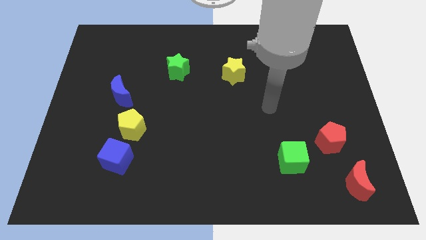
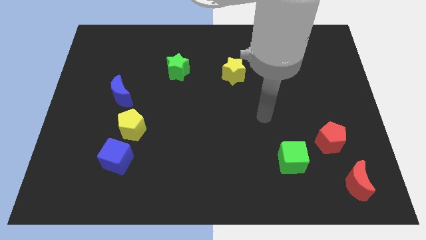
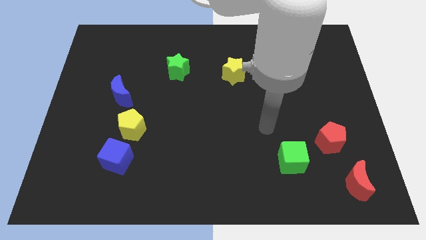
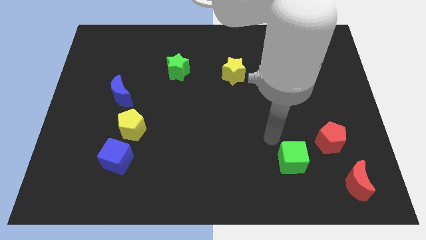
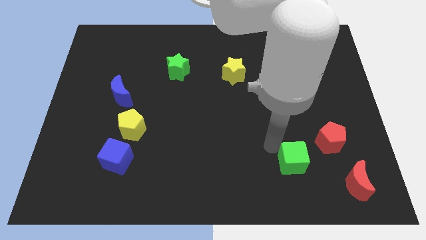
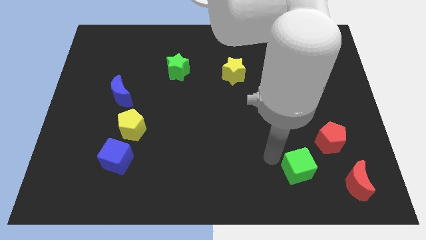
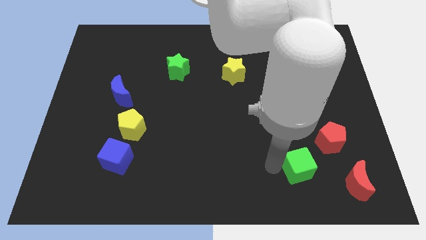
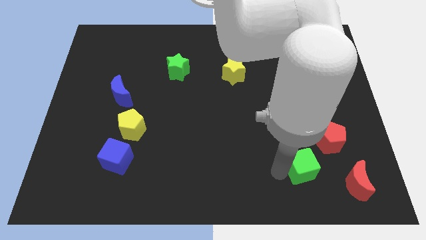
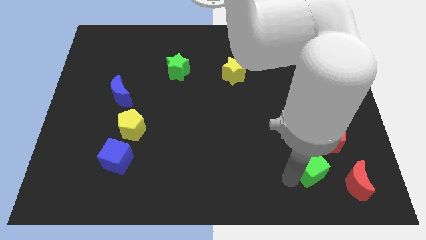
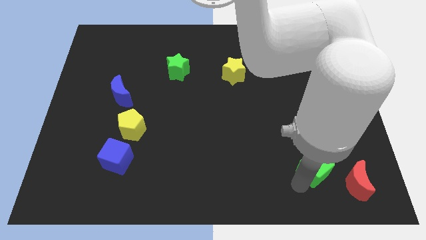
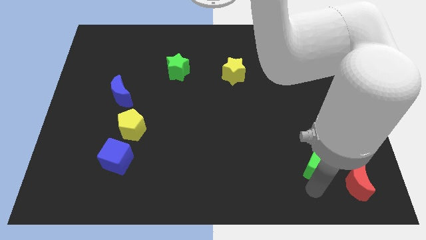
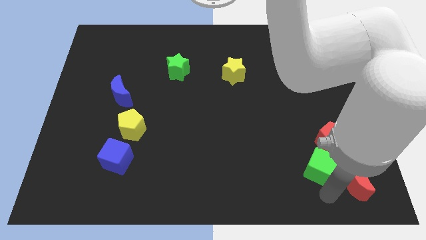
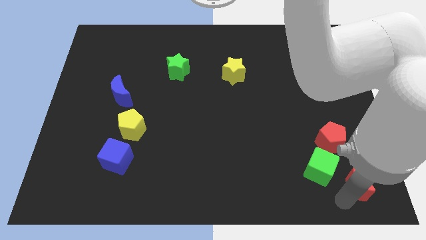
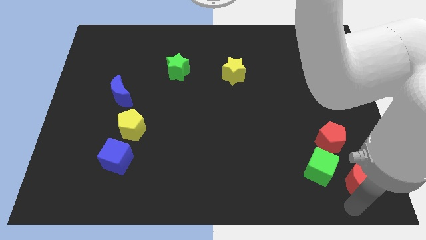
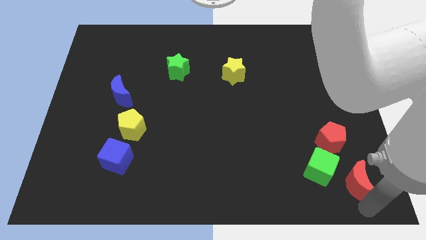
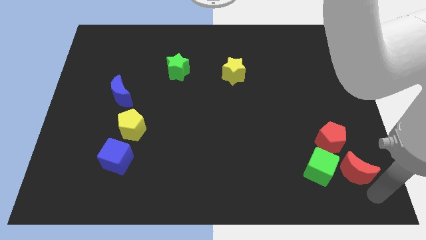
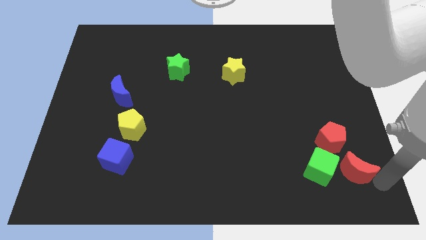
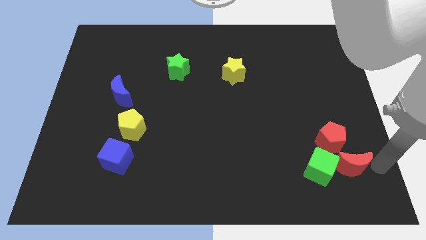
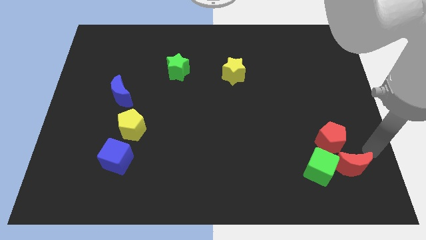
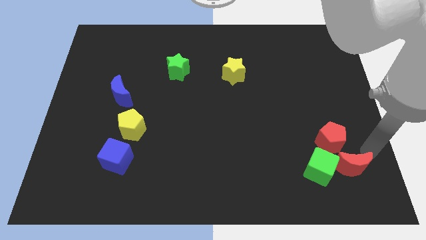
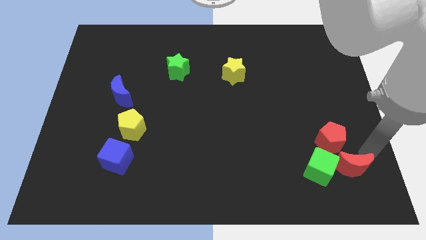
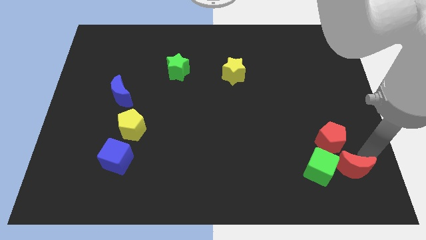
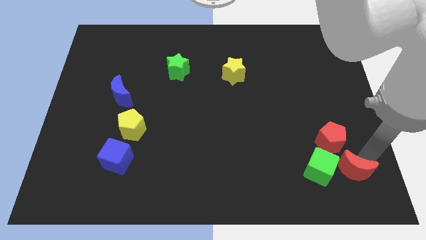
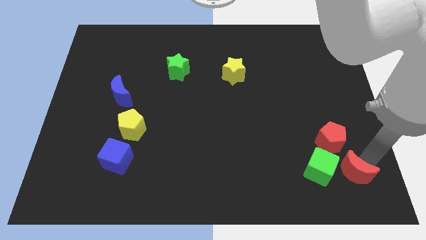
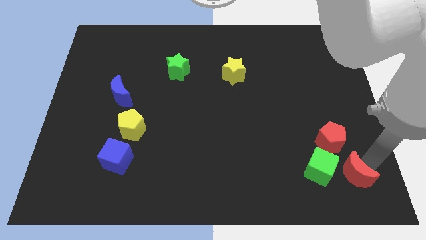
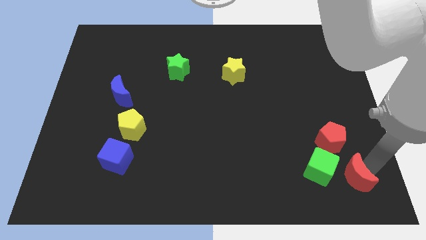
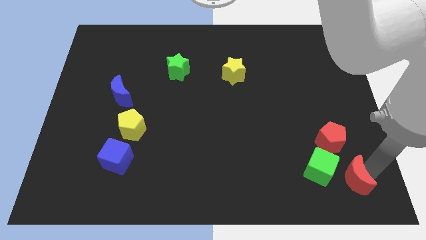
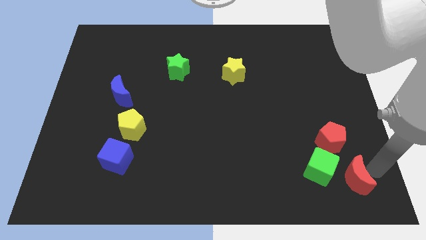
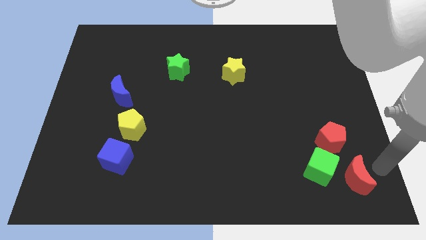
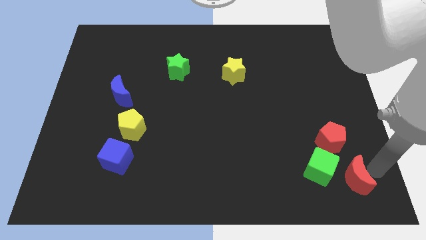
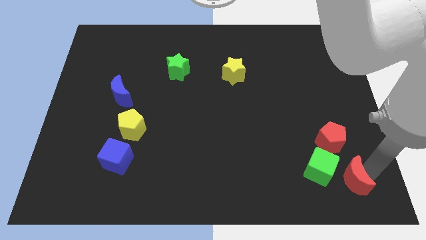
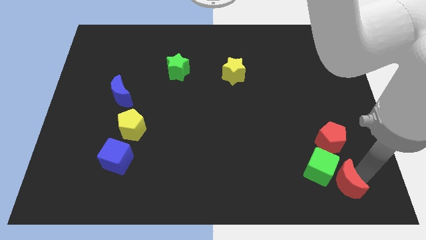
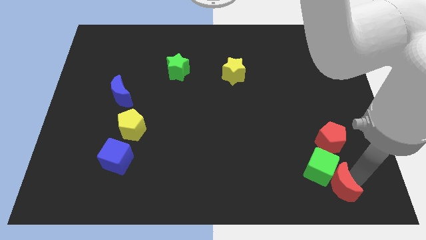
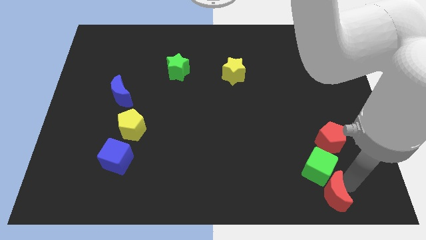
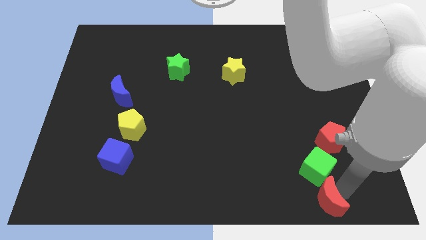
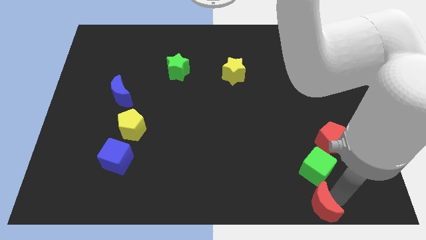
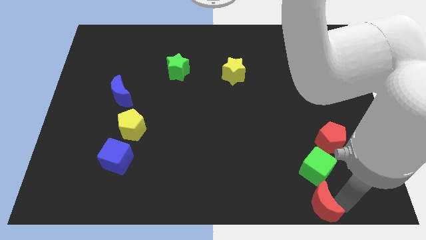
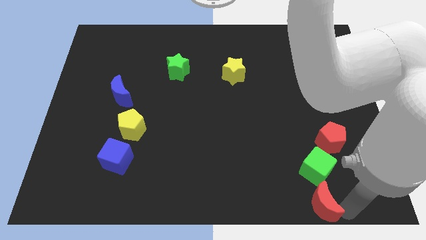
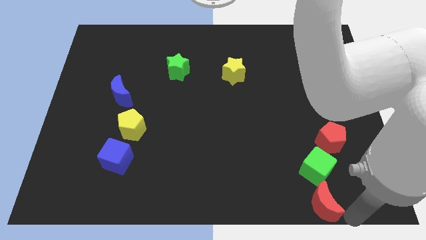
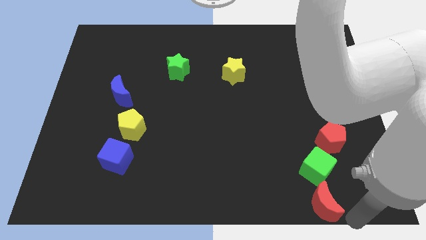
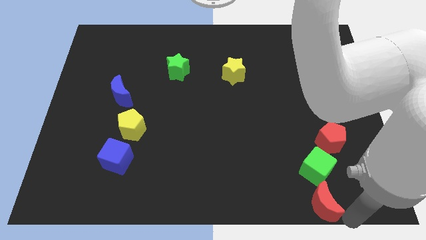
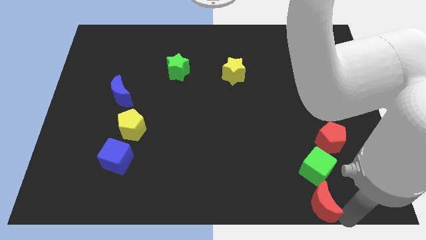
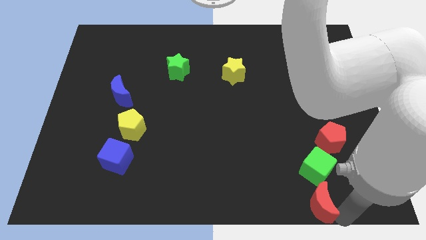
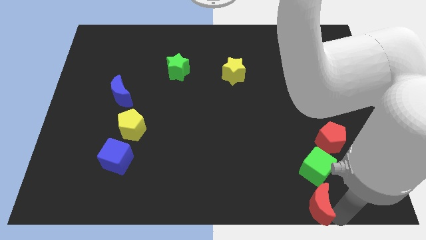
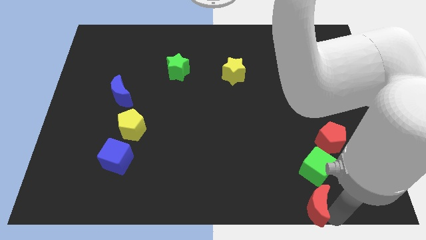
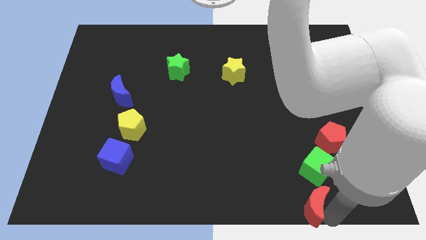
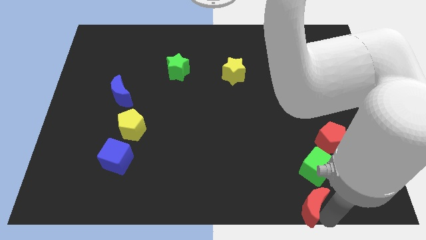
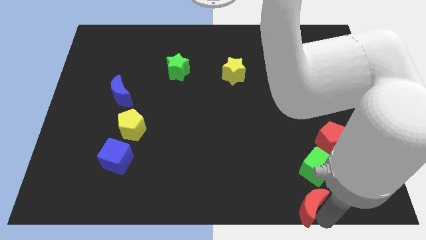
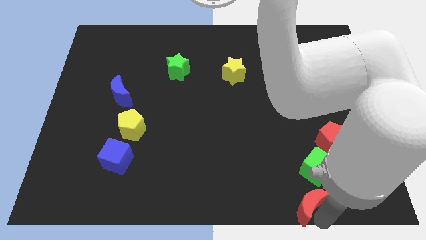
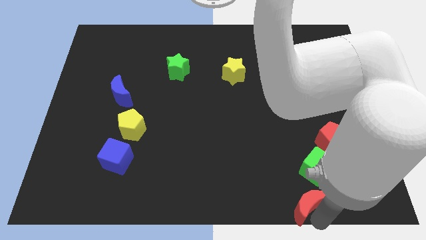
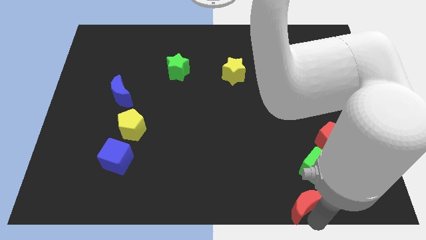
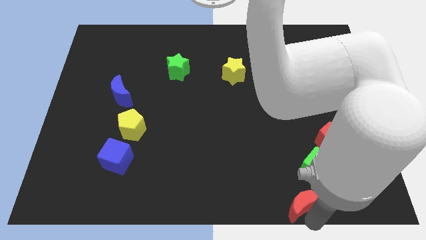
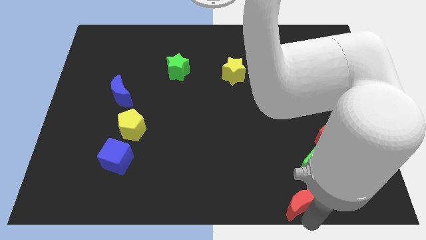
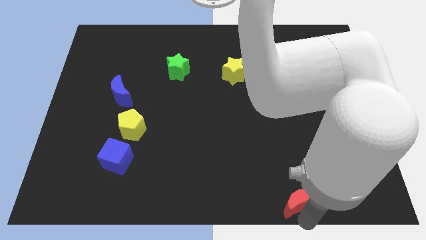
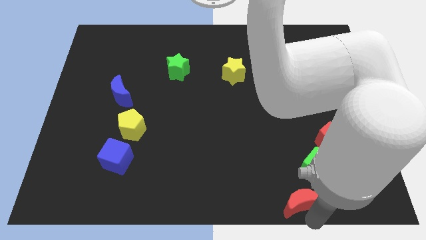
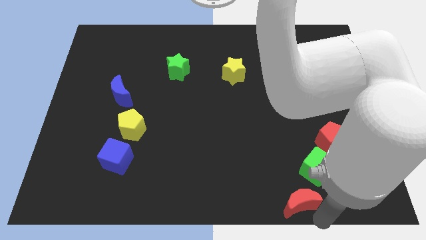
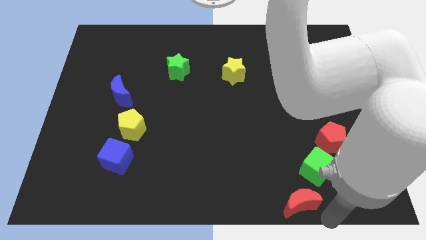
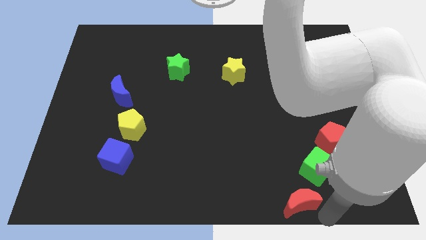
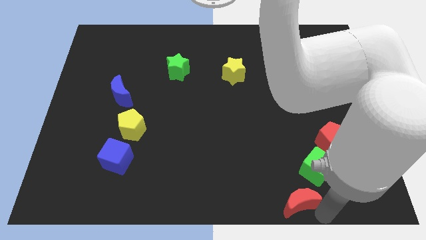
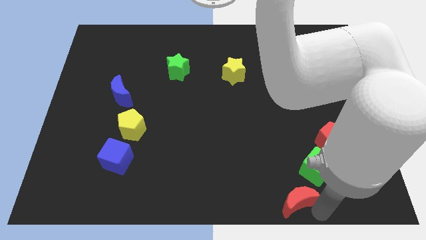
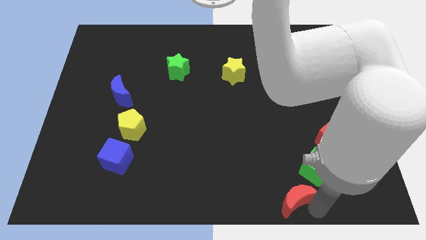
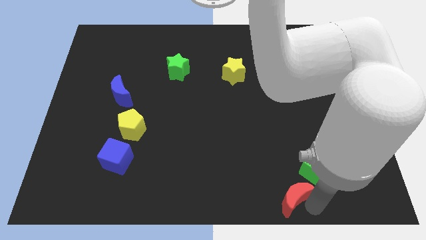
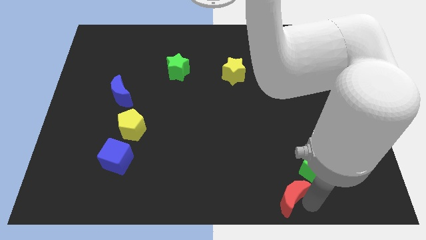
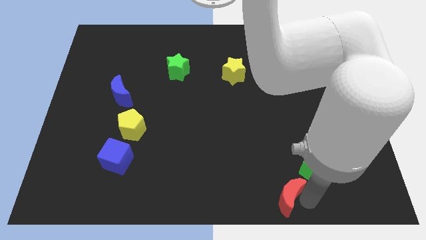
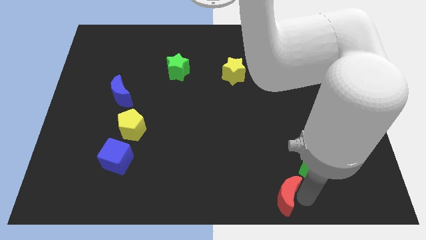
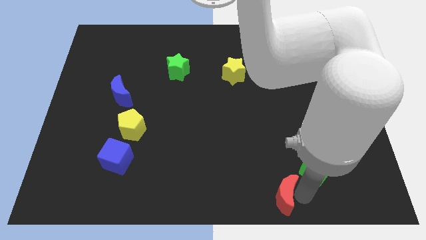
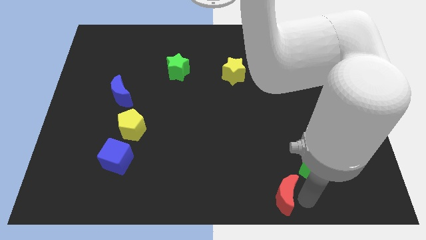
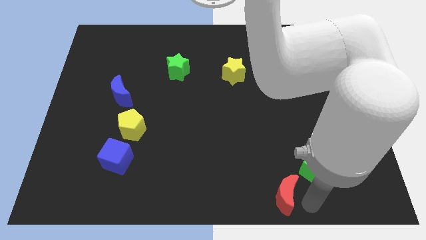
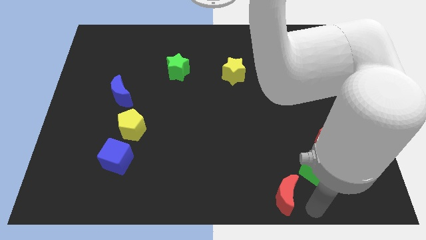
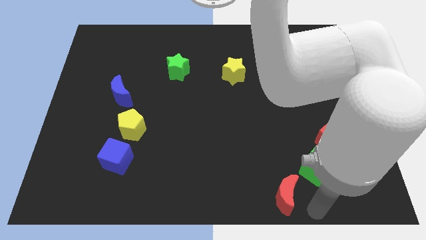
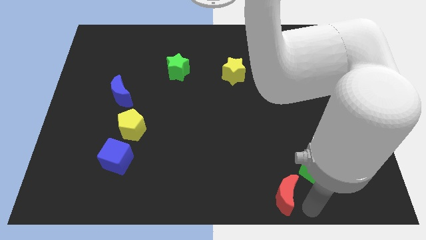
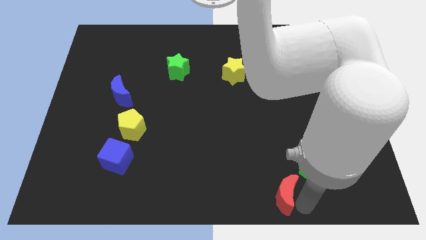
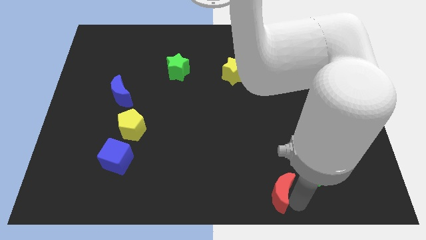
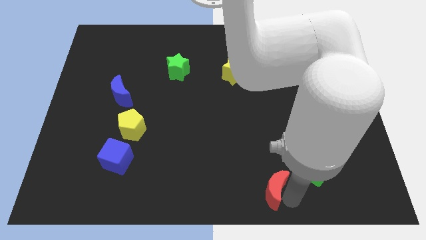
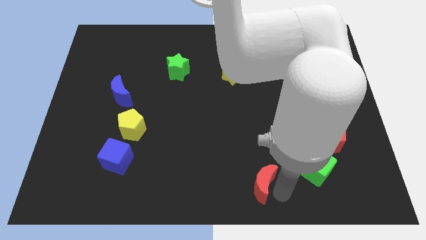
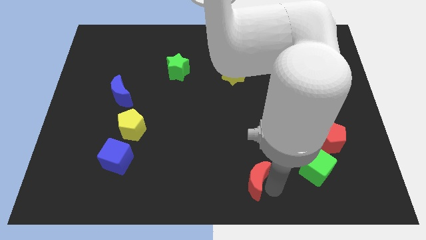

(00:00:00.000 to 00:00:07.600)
move the red moon to the left

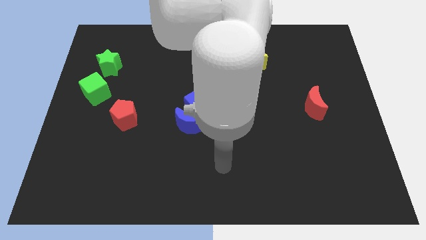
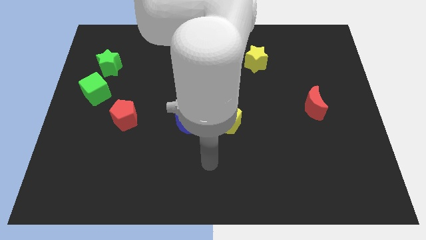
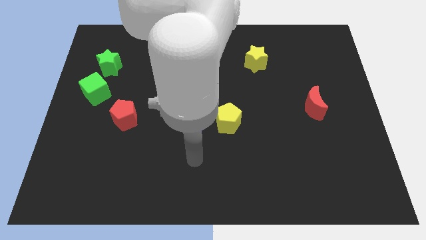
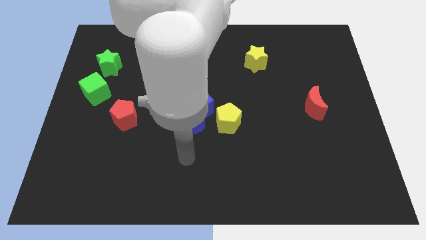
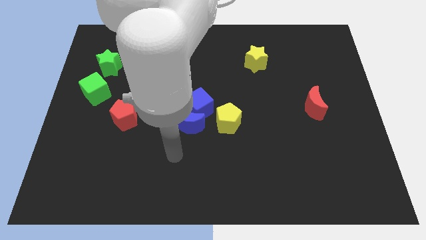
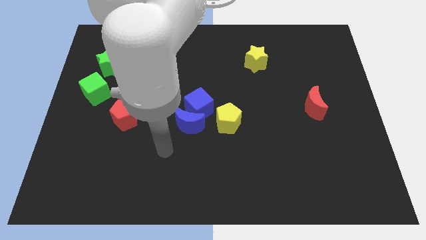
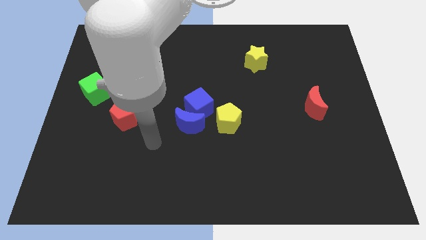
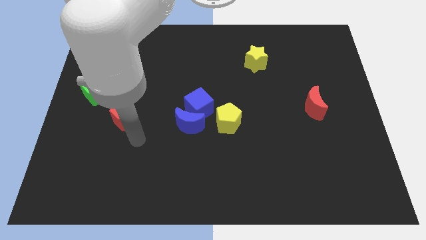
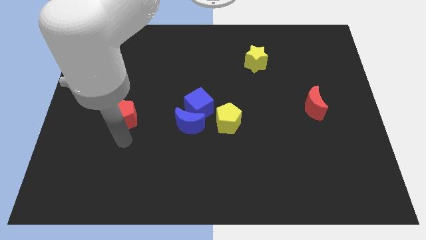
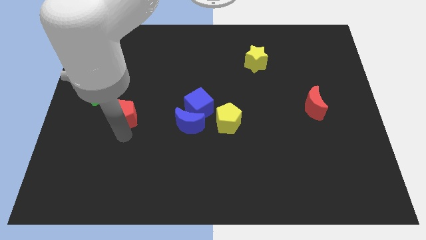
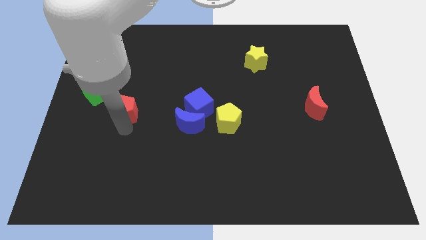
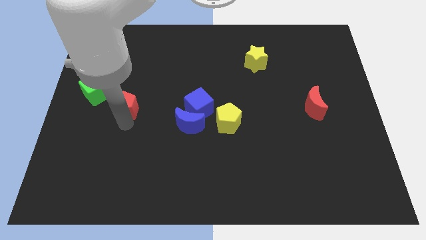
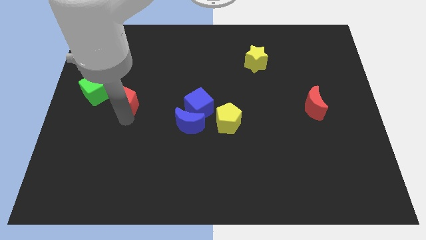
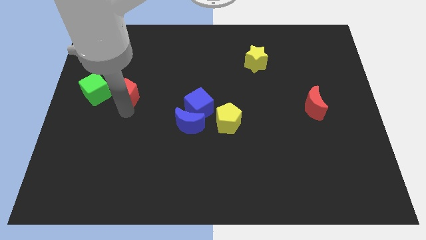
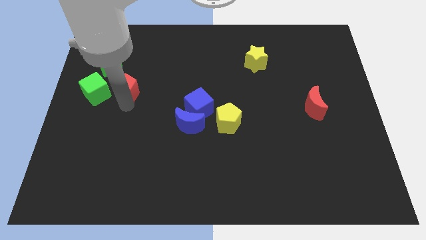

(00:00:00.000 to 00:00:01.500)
slightly push the red pentagon upwards
